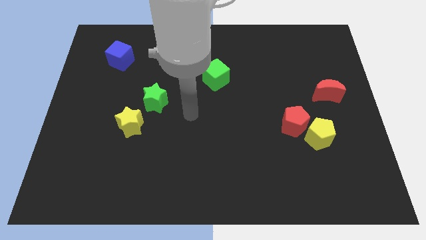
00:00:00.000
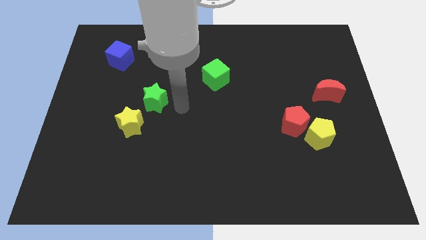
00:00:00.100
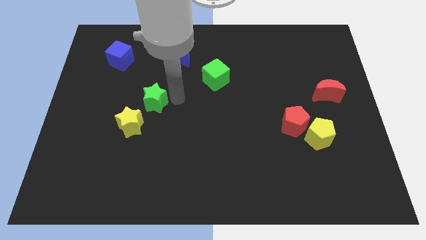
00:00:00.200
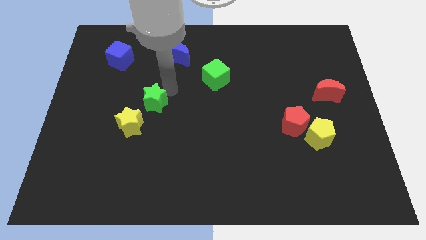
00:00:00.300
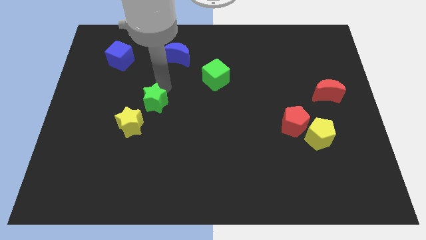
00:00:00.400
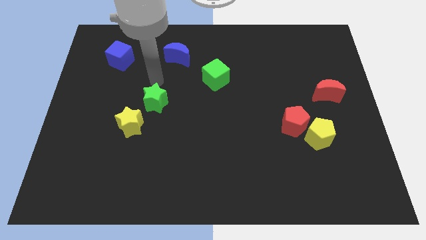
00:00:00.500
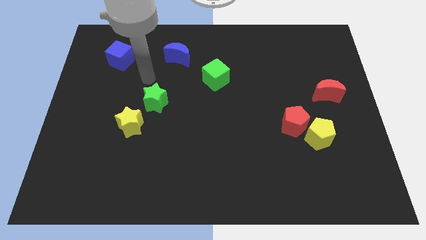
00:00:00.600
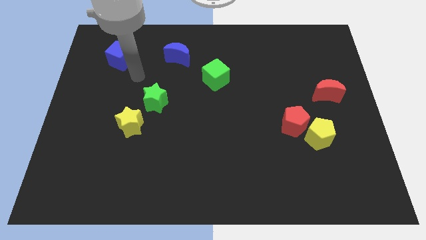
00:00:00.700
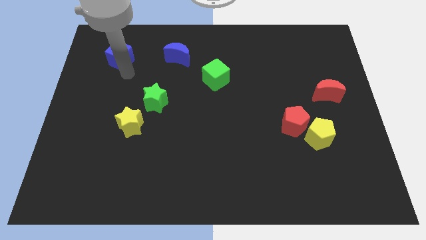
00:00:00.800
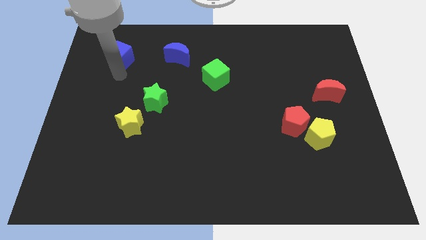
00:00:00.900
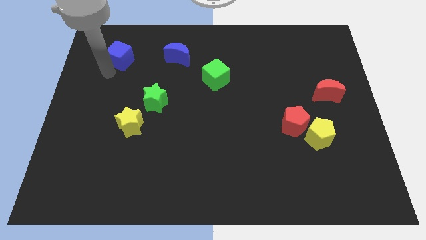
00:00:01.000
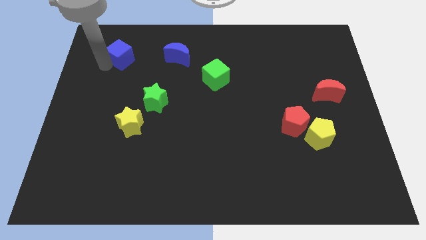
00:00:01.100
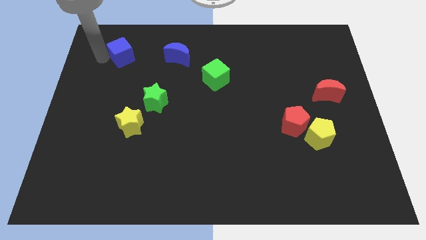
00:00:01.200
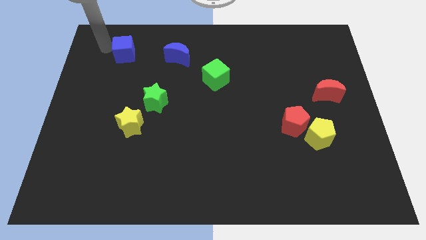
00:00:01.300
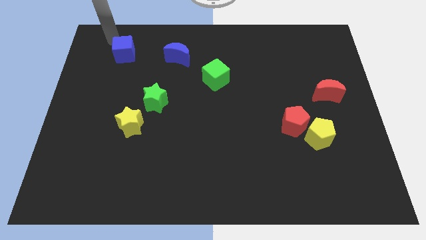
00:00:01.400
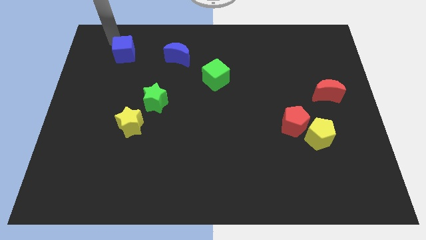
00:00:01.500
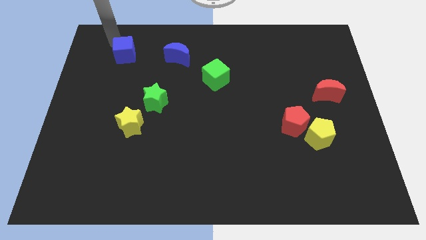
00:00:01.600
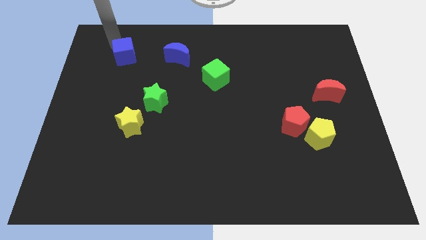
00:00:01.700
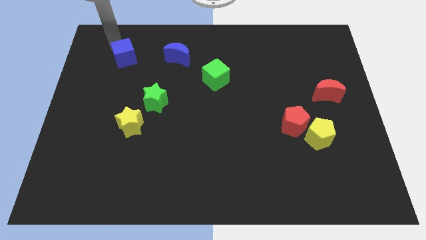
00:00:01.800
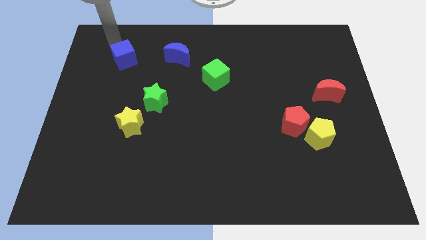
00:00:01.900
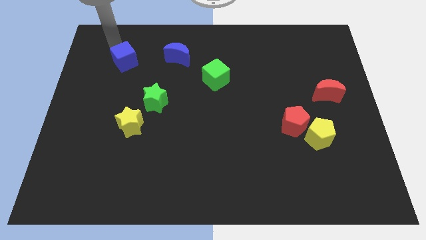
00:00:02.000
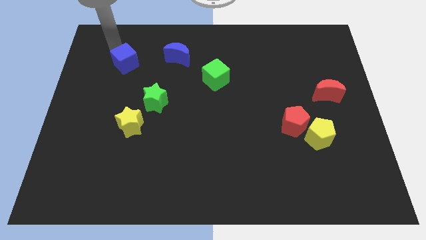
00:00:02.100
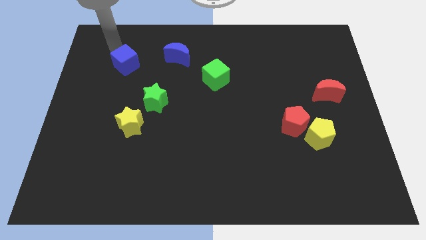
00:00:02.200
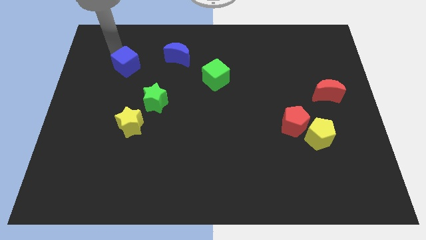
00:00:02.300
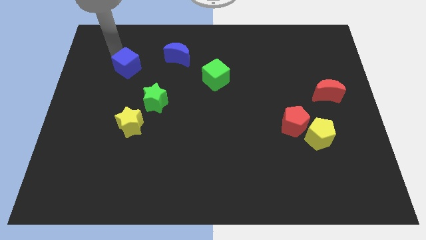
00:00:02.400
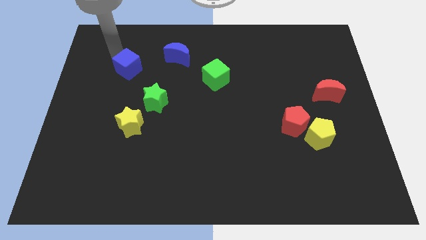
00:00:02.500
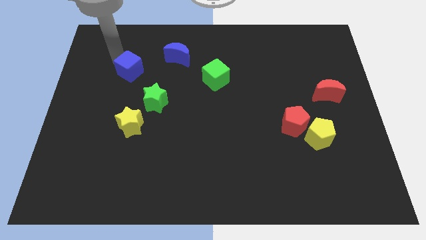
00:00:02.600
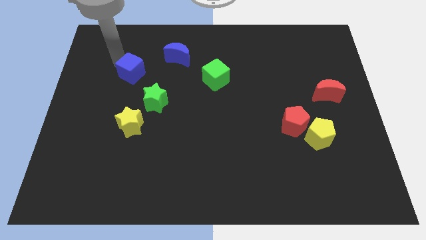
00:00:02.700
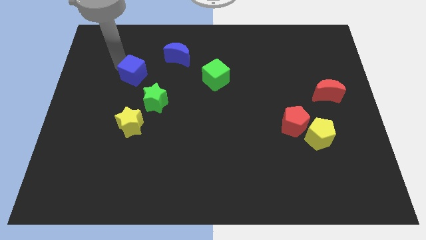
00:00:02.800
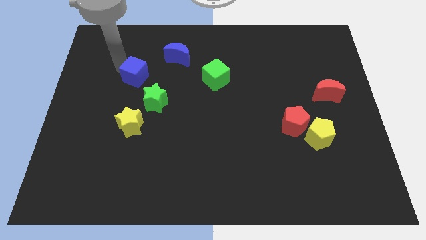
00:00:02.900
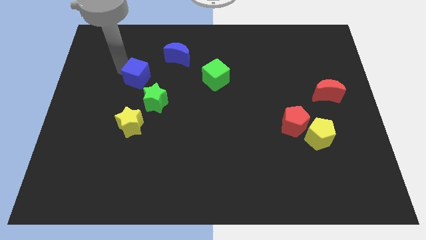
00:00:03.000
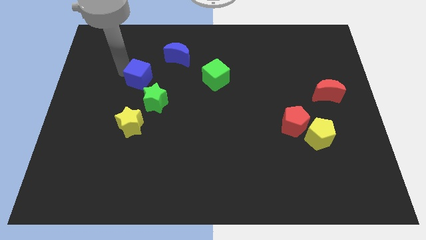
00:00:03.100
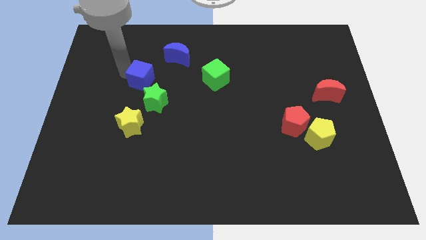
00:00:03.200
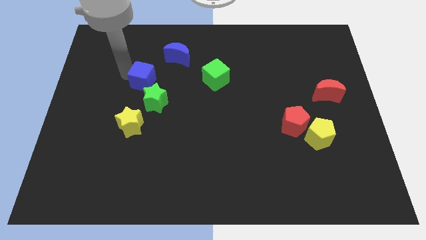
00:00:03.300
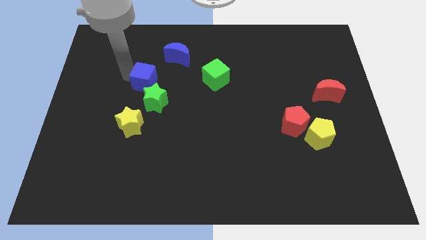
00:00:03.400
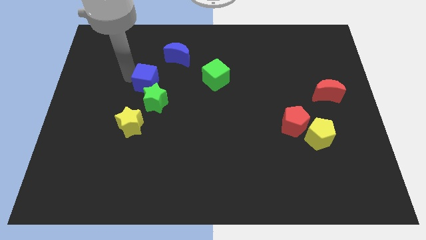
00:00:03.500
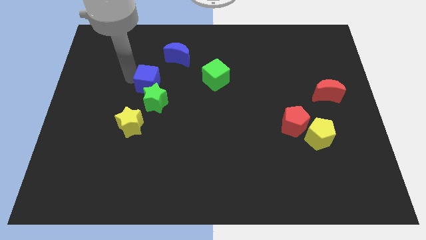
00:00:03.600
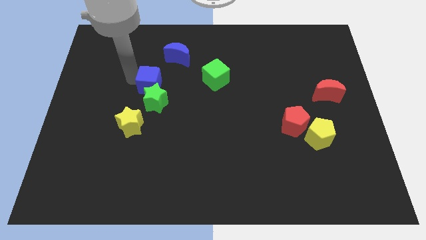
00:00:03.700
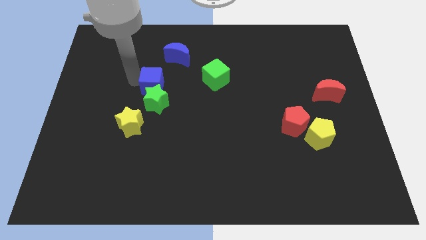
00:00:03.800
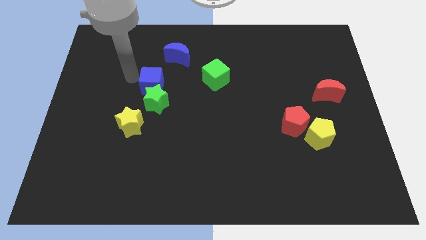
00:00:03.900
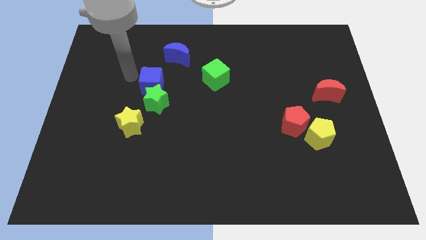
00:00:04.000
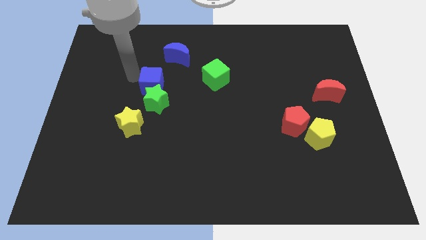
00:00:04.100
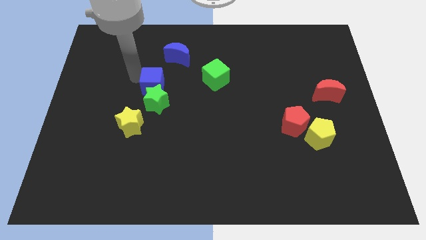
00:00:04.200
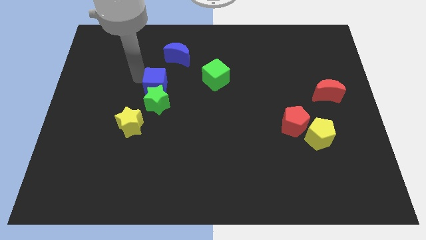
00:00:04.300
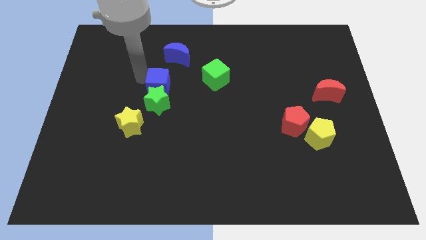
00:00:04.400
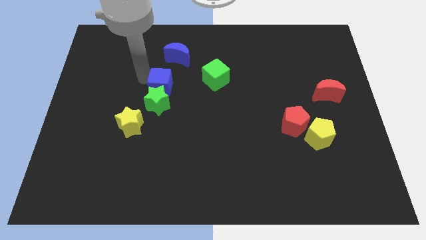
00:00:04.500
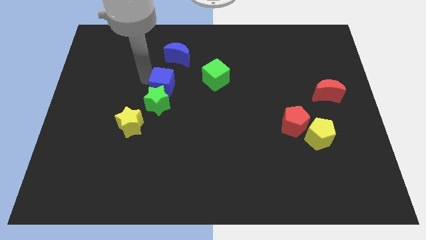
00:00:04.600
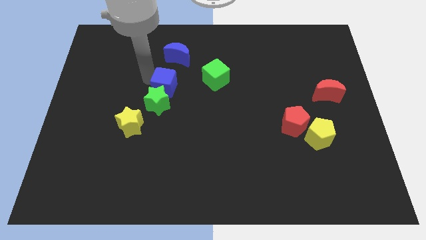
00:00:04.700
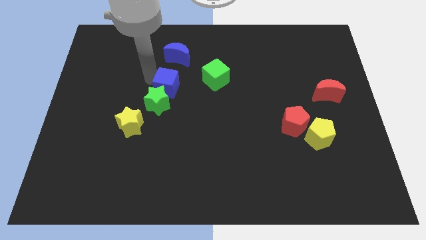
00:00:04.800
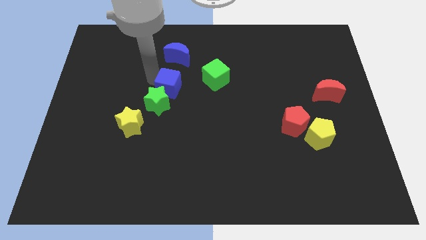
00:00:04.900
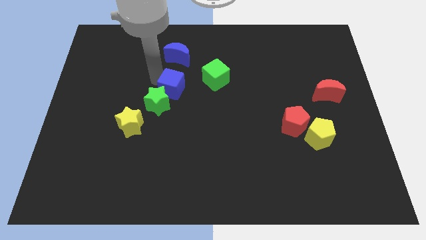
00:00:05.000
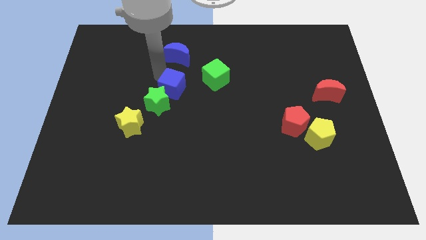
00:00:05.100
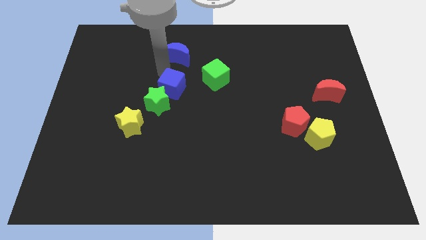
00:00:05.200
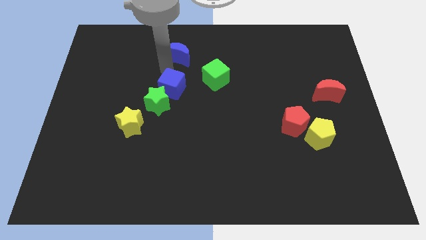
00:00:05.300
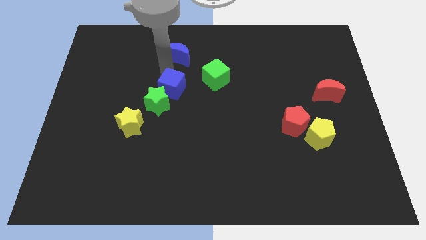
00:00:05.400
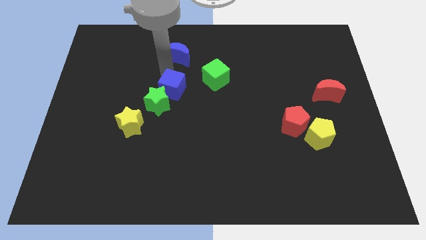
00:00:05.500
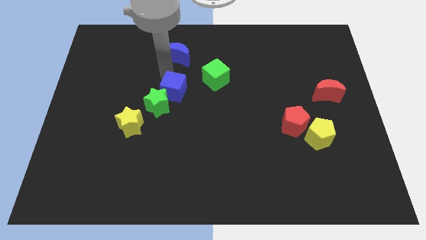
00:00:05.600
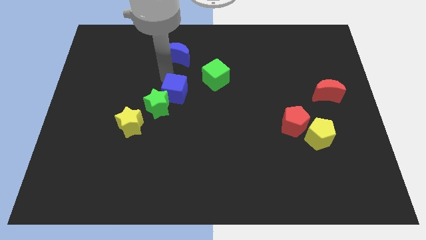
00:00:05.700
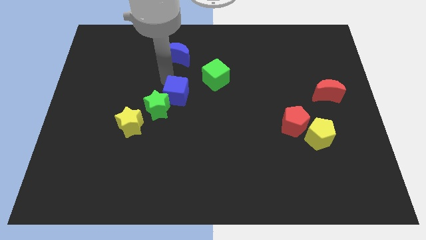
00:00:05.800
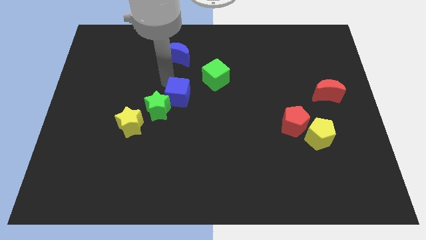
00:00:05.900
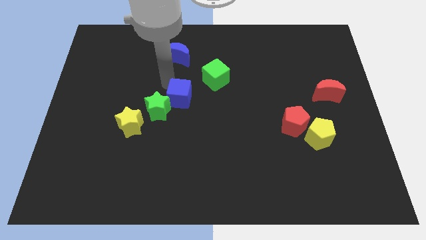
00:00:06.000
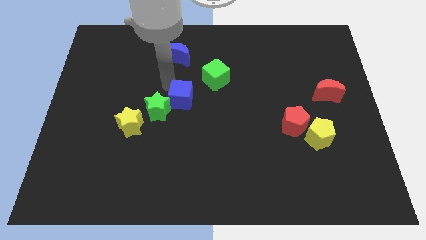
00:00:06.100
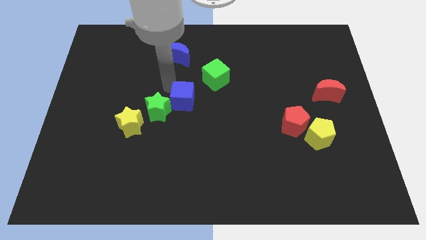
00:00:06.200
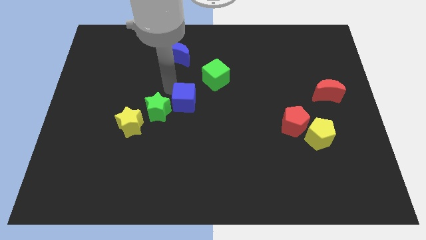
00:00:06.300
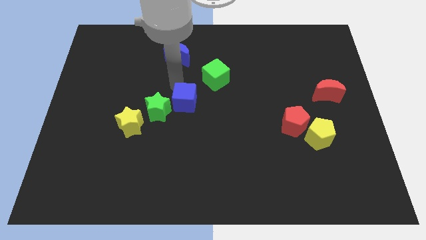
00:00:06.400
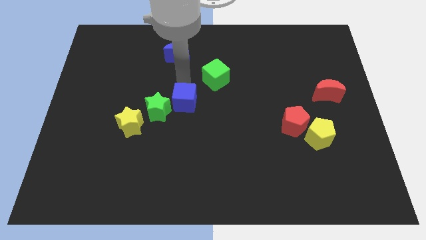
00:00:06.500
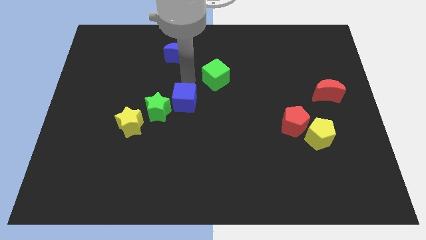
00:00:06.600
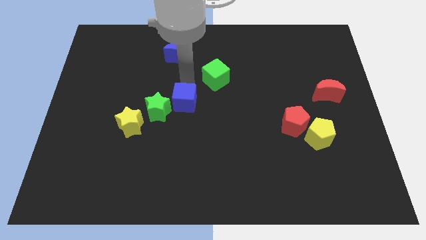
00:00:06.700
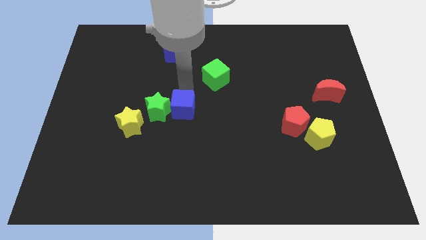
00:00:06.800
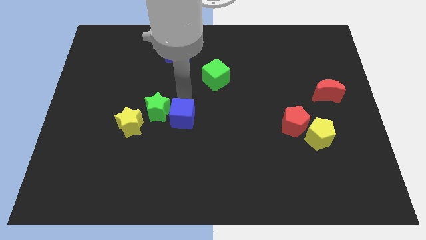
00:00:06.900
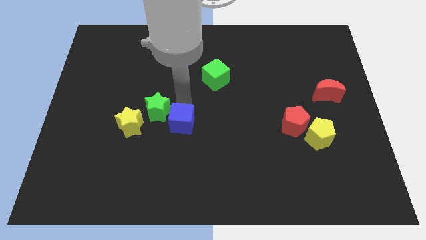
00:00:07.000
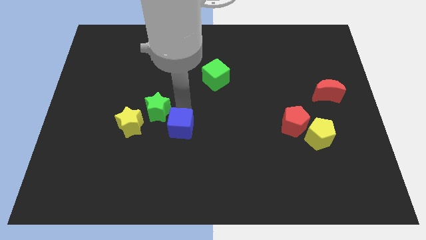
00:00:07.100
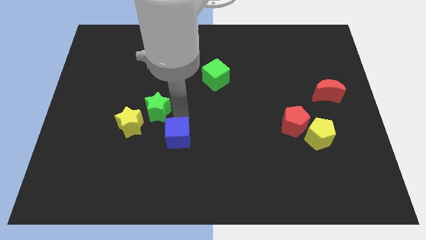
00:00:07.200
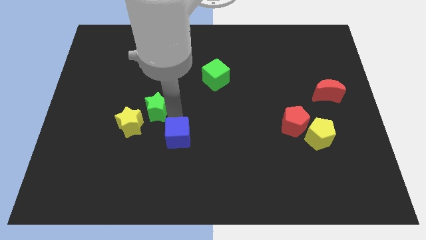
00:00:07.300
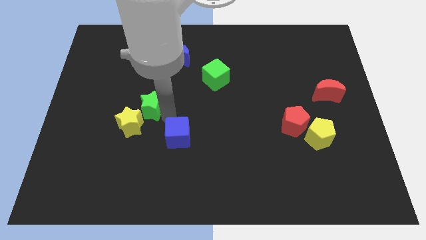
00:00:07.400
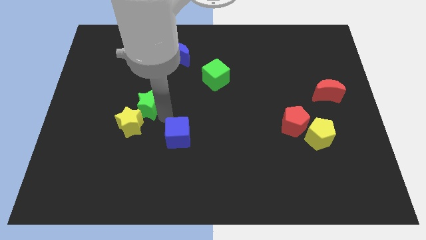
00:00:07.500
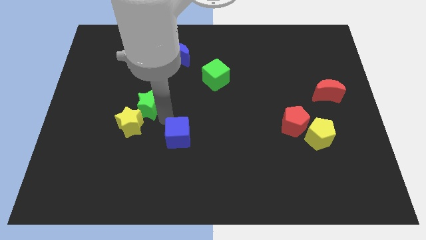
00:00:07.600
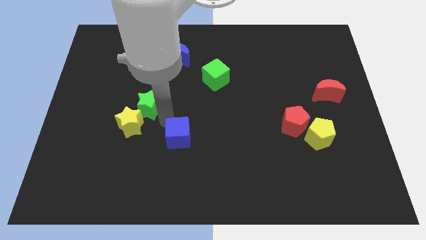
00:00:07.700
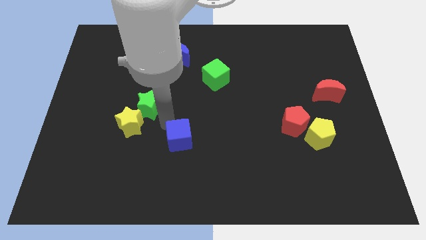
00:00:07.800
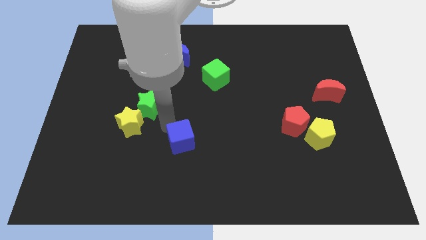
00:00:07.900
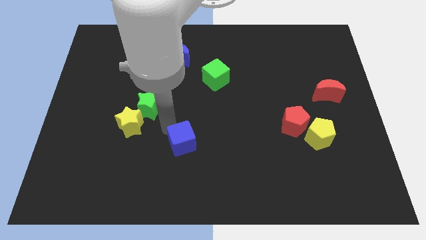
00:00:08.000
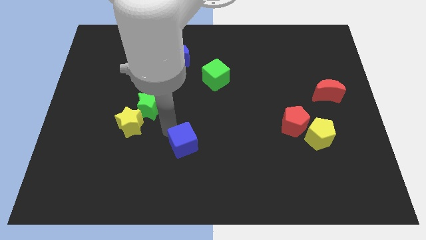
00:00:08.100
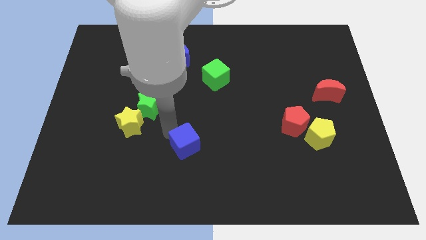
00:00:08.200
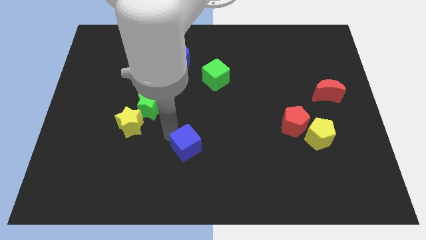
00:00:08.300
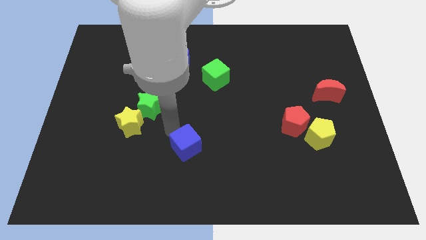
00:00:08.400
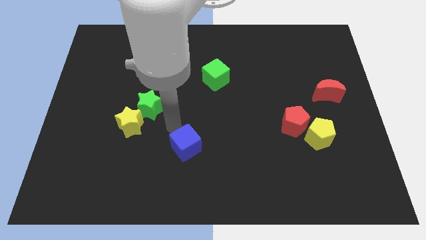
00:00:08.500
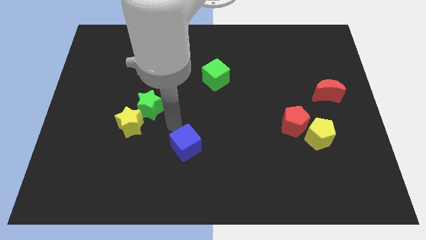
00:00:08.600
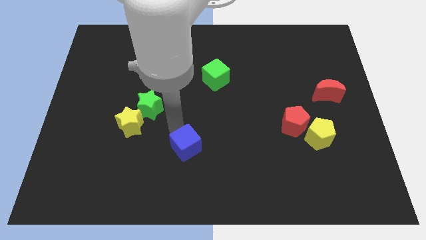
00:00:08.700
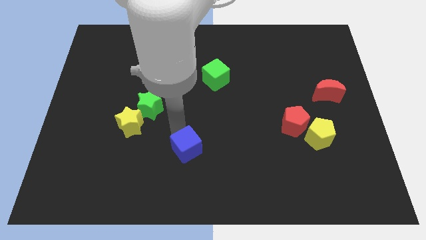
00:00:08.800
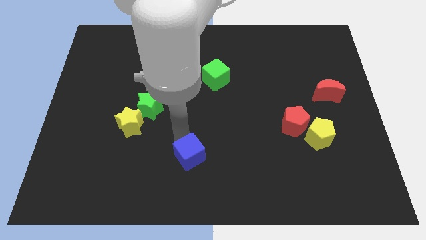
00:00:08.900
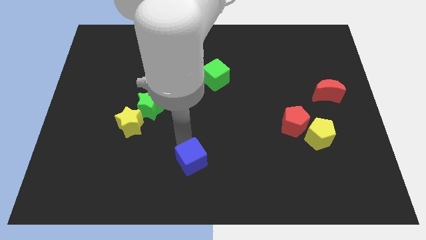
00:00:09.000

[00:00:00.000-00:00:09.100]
put the blue cube to the bottom
